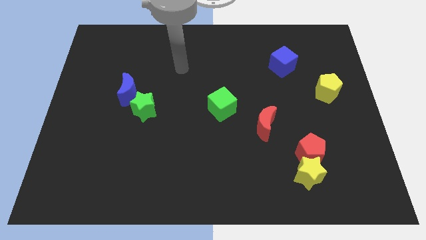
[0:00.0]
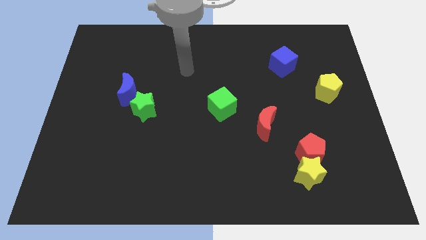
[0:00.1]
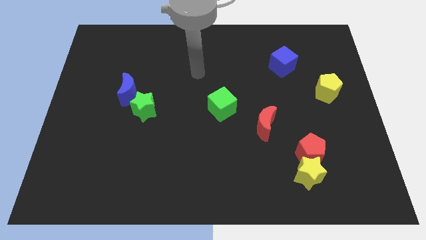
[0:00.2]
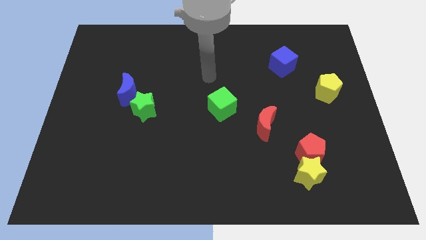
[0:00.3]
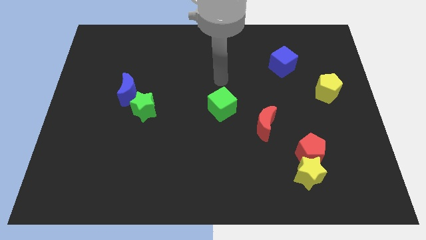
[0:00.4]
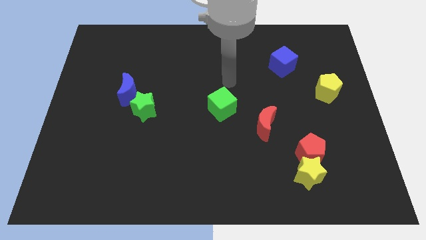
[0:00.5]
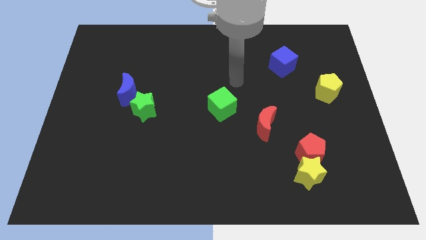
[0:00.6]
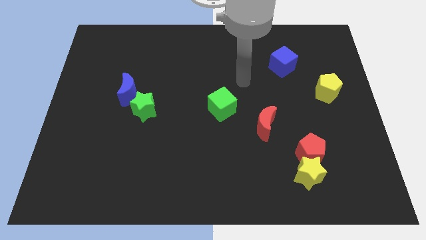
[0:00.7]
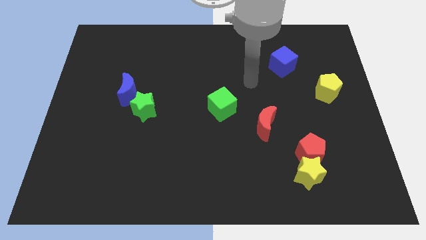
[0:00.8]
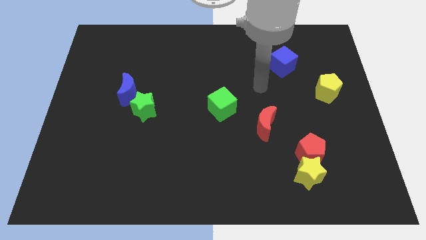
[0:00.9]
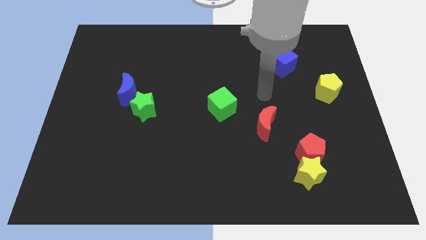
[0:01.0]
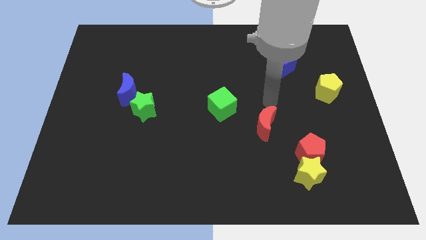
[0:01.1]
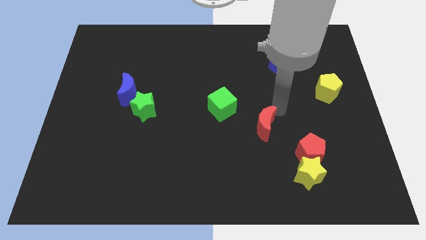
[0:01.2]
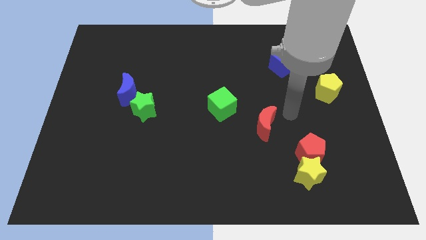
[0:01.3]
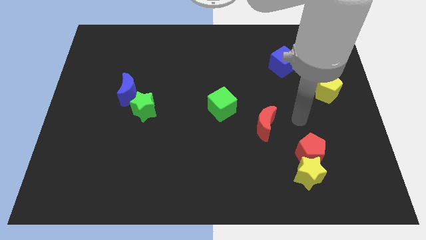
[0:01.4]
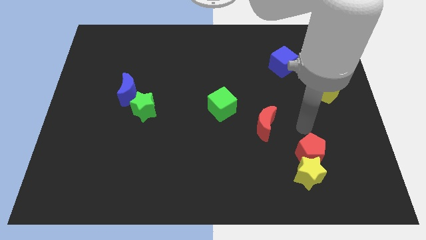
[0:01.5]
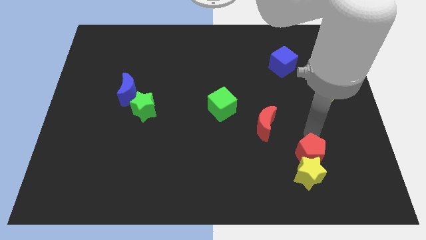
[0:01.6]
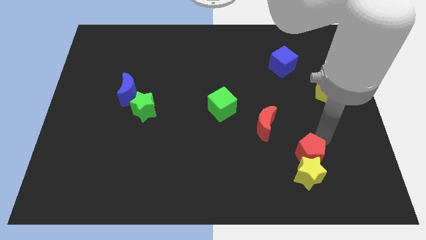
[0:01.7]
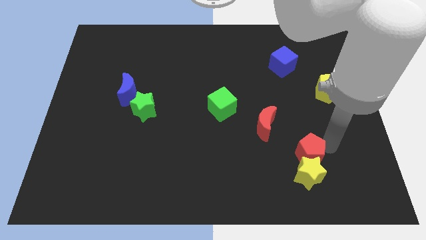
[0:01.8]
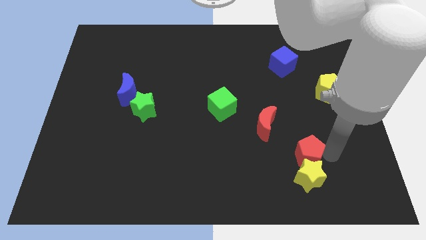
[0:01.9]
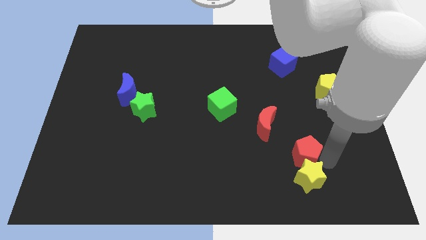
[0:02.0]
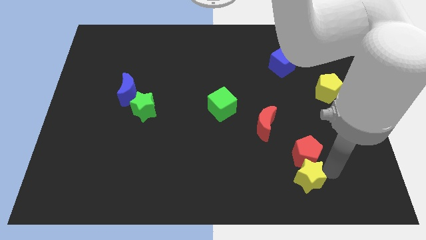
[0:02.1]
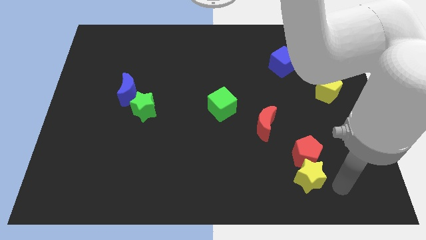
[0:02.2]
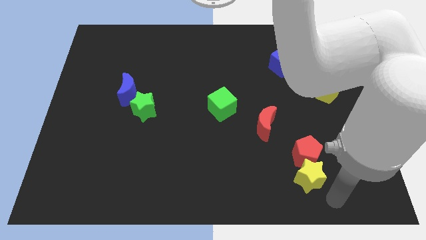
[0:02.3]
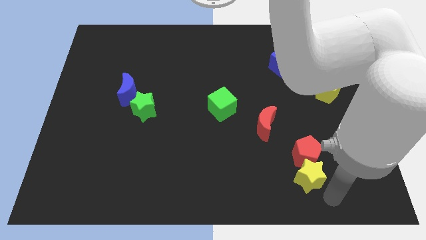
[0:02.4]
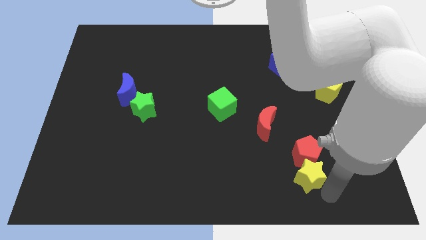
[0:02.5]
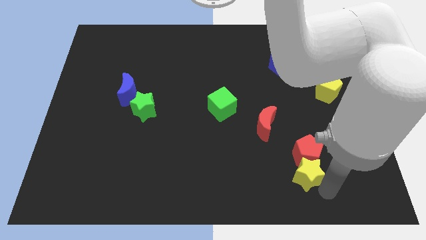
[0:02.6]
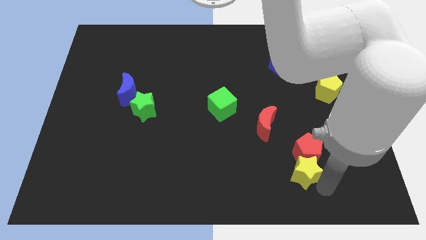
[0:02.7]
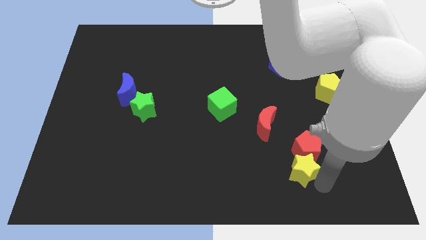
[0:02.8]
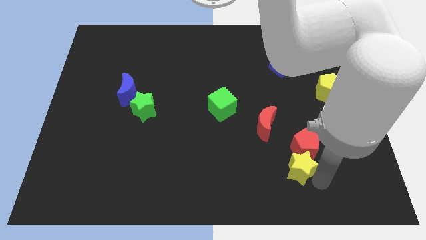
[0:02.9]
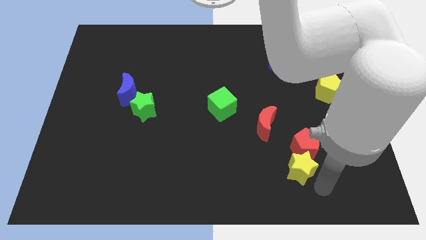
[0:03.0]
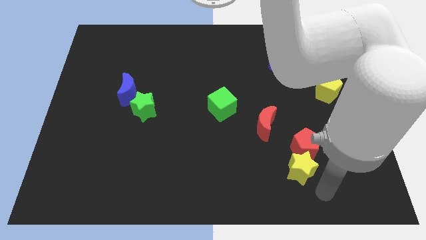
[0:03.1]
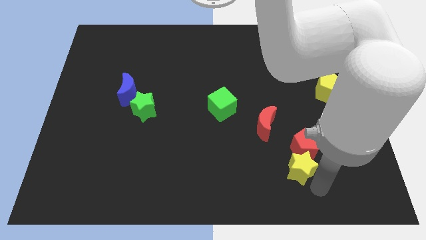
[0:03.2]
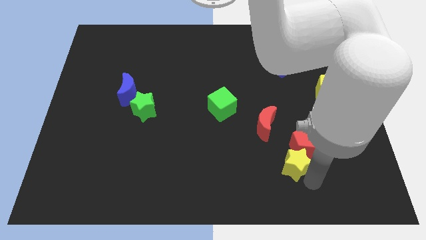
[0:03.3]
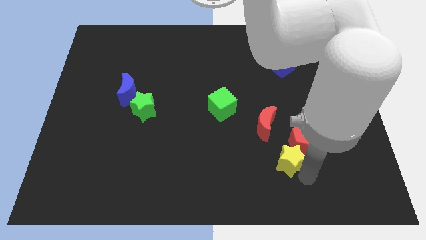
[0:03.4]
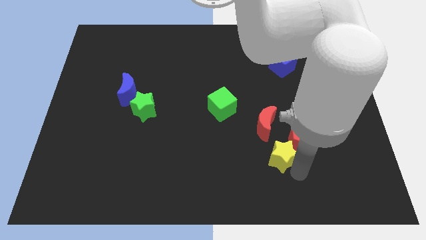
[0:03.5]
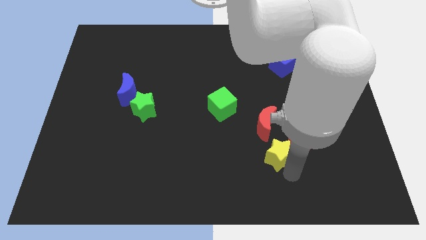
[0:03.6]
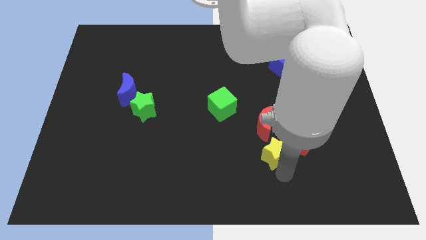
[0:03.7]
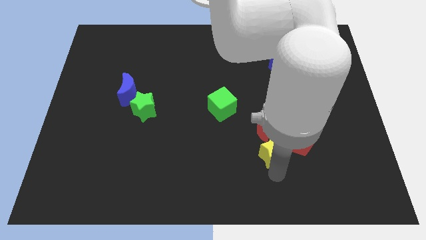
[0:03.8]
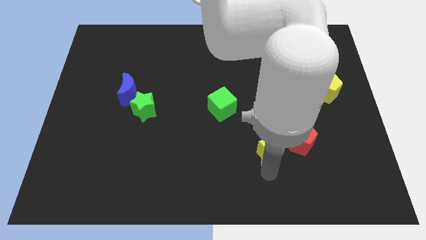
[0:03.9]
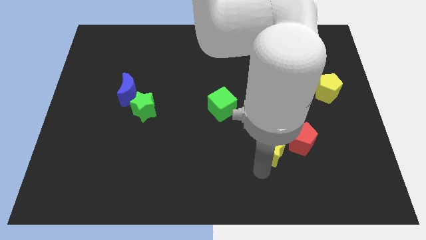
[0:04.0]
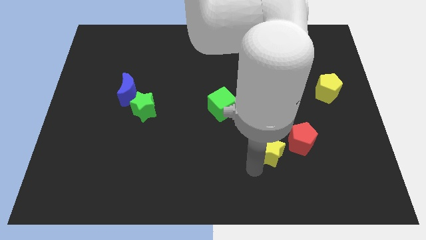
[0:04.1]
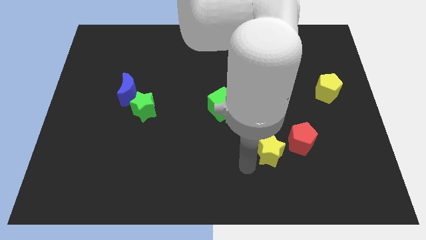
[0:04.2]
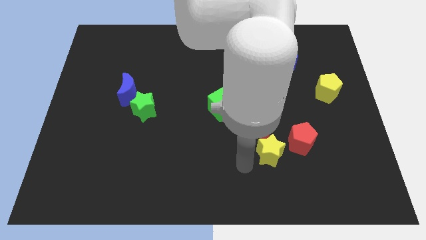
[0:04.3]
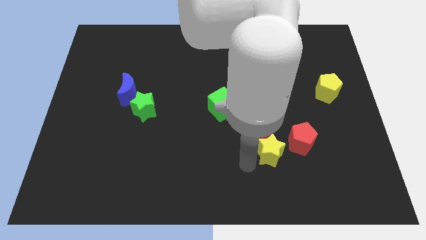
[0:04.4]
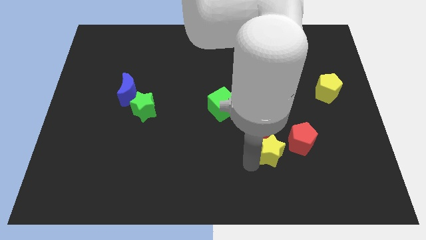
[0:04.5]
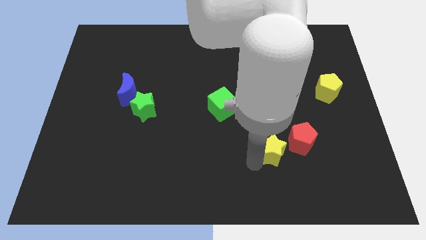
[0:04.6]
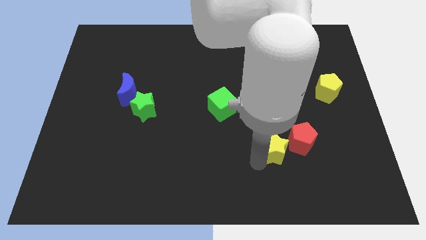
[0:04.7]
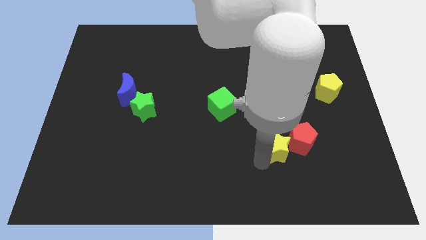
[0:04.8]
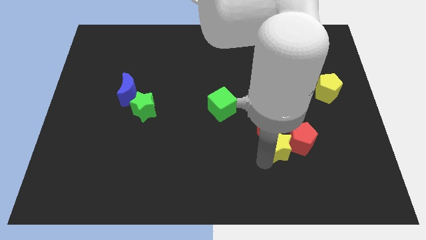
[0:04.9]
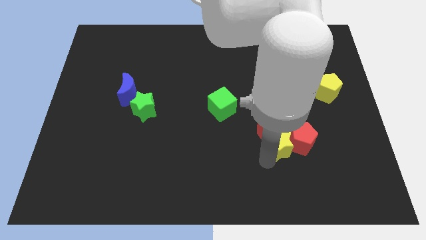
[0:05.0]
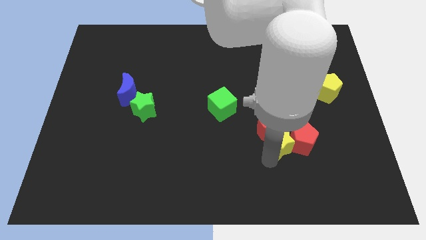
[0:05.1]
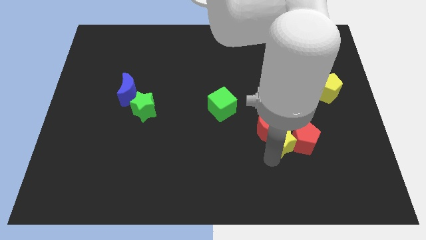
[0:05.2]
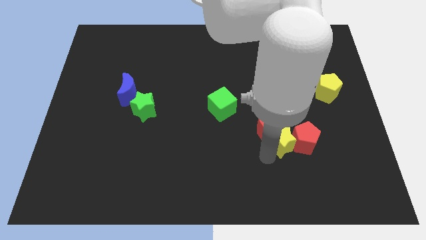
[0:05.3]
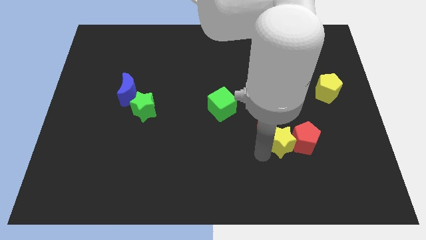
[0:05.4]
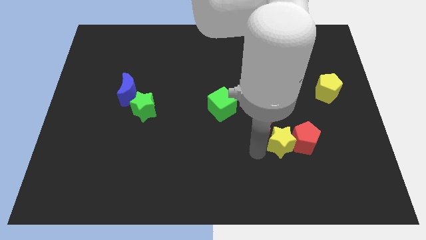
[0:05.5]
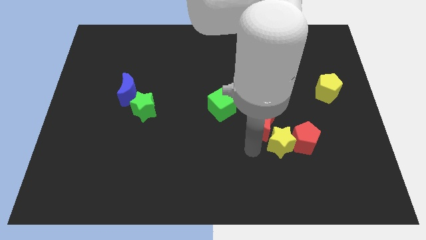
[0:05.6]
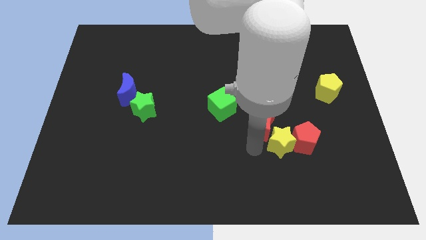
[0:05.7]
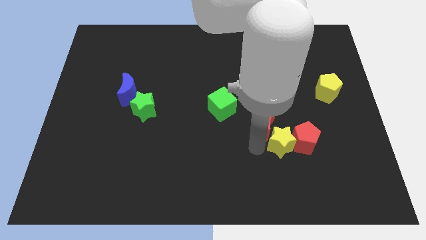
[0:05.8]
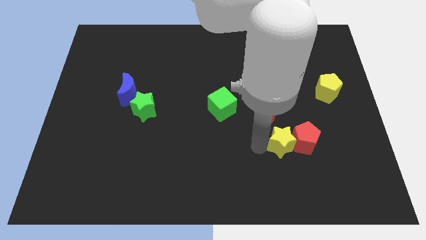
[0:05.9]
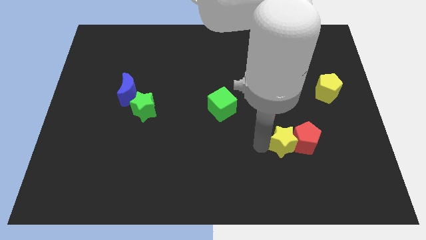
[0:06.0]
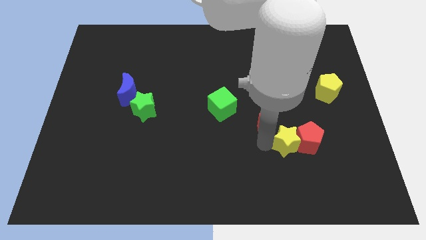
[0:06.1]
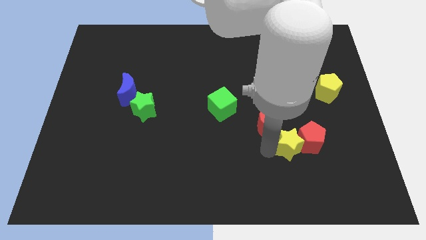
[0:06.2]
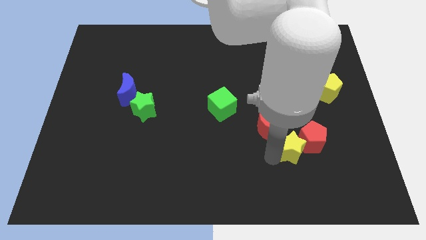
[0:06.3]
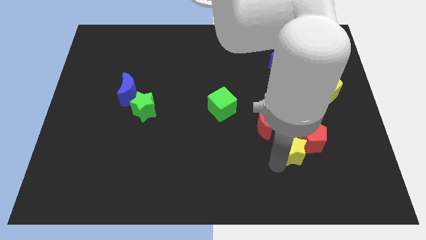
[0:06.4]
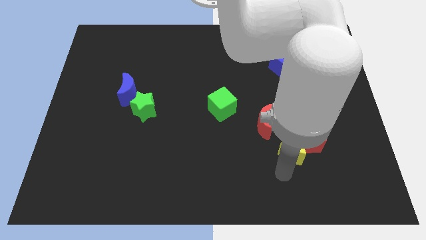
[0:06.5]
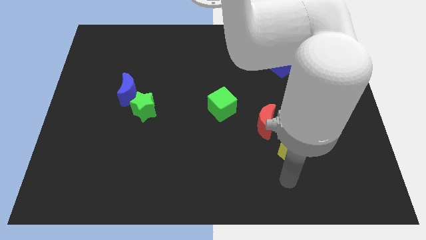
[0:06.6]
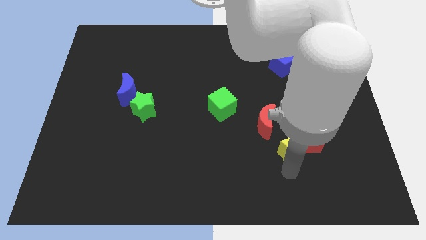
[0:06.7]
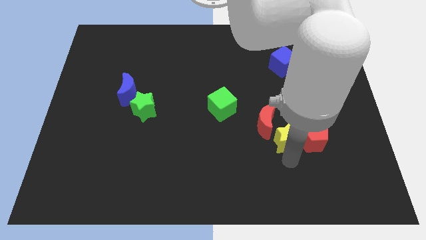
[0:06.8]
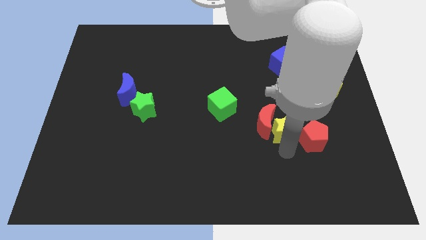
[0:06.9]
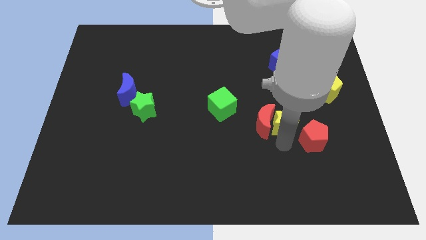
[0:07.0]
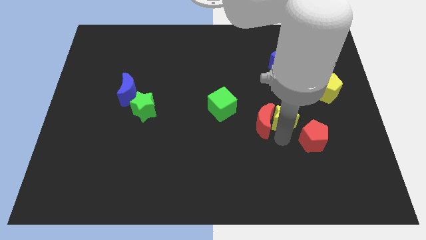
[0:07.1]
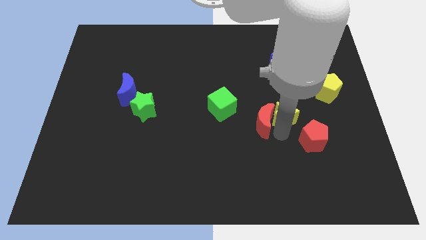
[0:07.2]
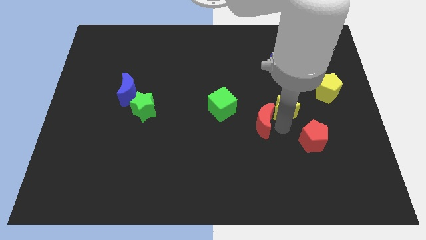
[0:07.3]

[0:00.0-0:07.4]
put the yellow star to the bottom of the blue cube

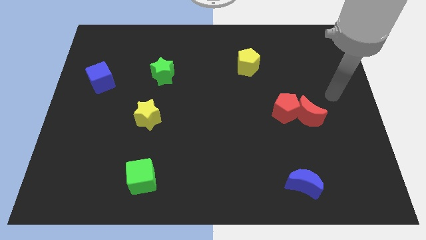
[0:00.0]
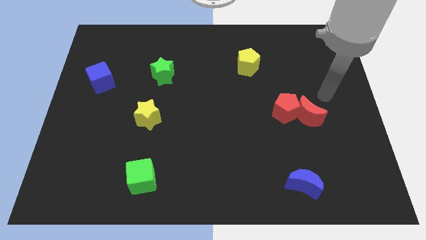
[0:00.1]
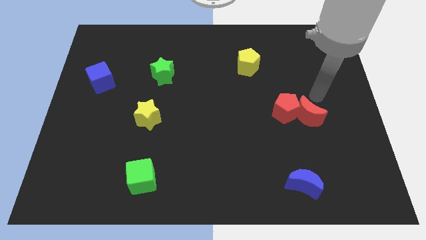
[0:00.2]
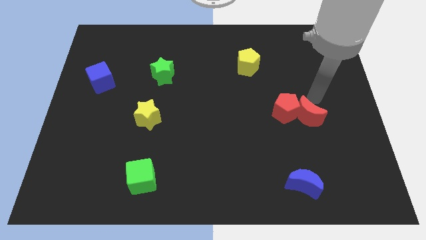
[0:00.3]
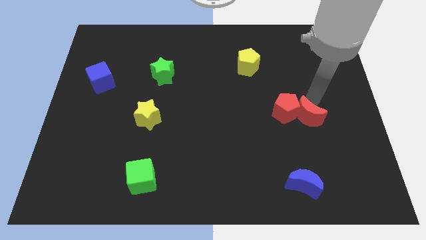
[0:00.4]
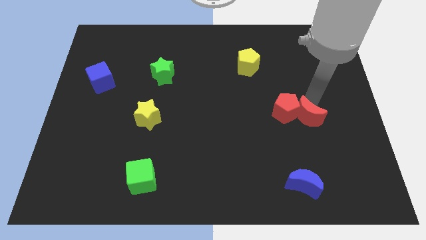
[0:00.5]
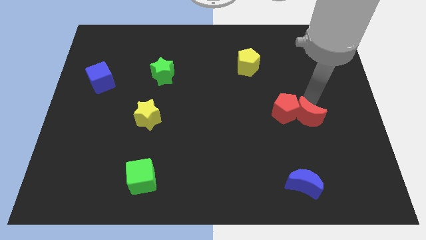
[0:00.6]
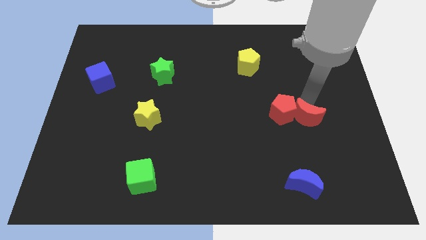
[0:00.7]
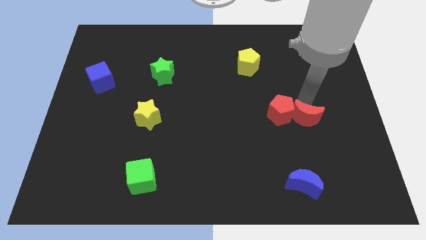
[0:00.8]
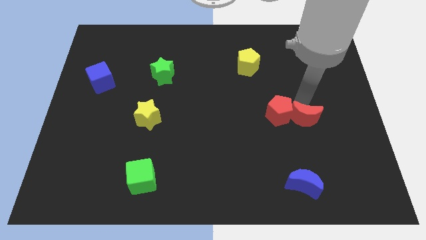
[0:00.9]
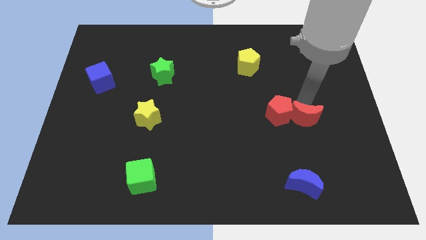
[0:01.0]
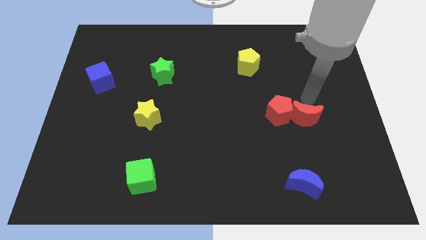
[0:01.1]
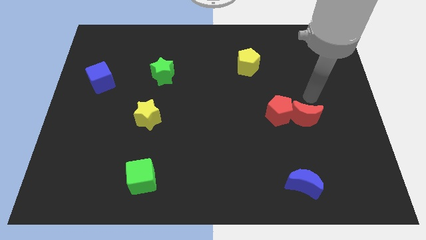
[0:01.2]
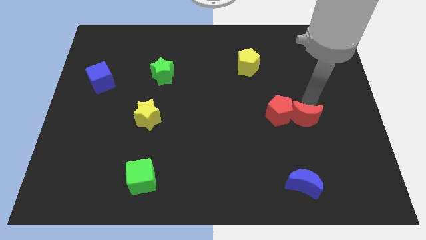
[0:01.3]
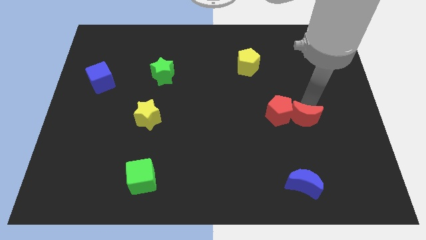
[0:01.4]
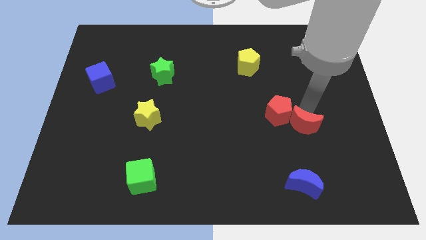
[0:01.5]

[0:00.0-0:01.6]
slide the red moon to the top side of the blue moon
